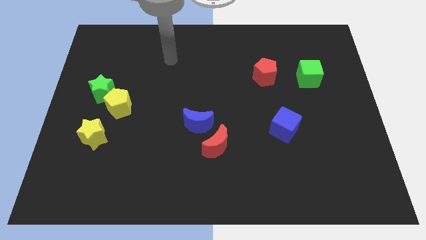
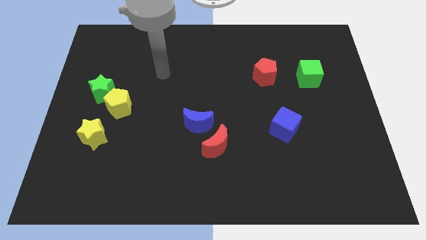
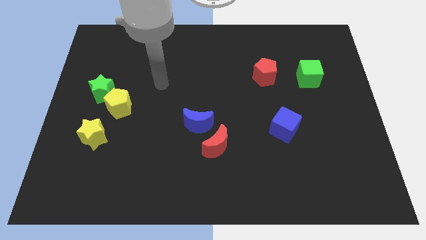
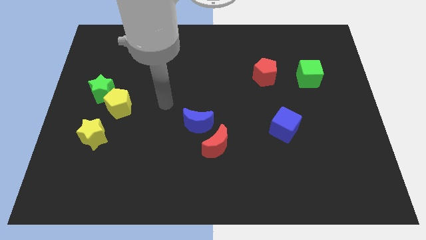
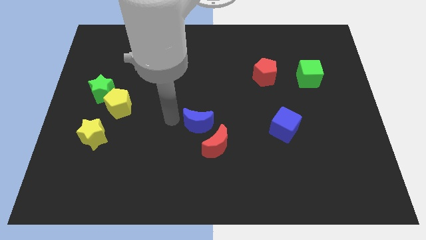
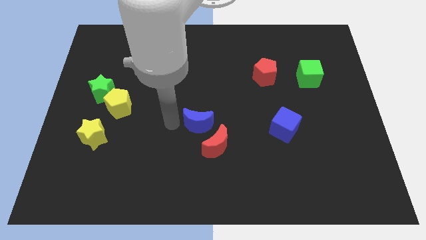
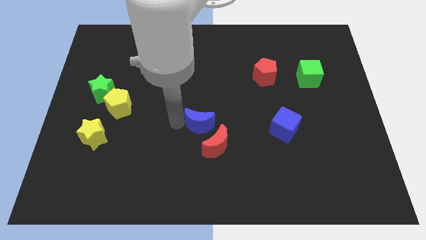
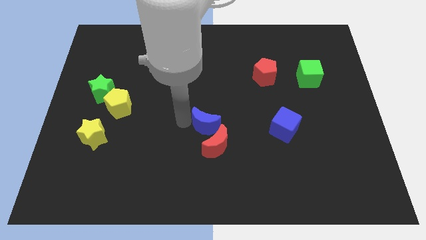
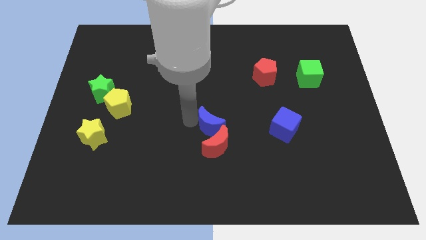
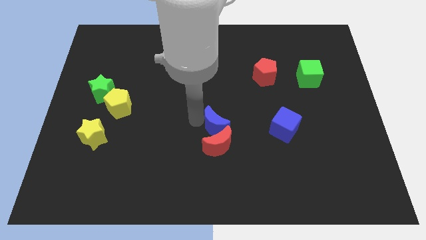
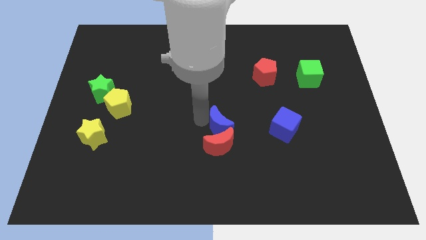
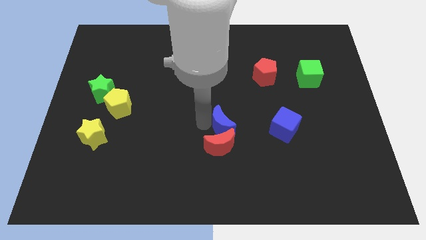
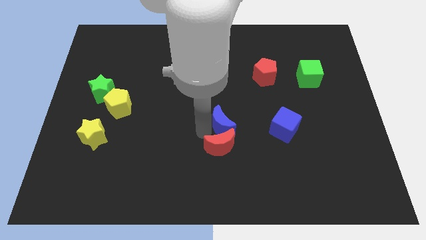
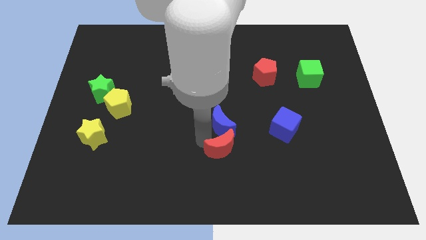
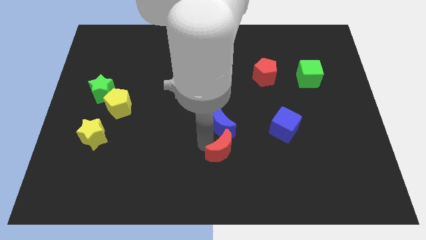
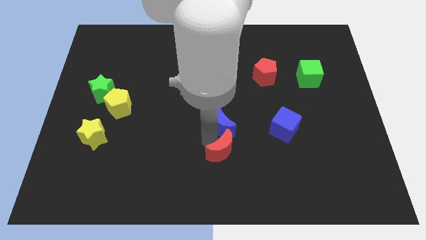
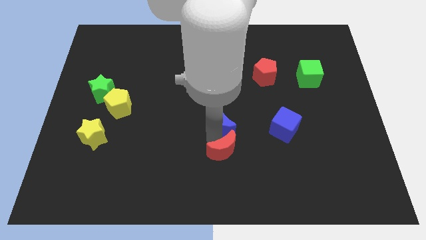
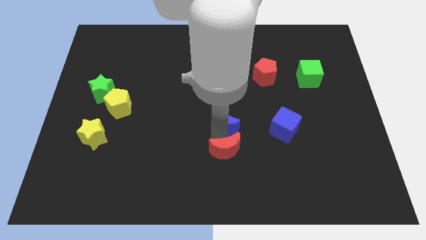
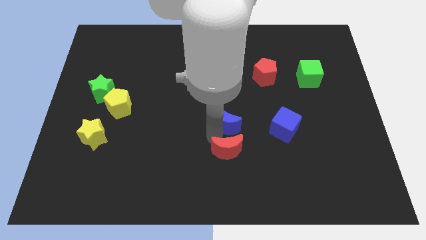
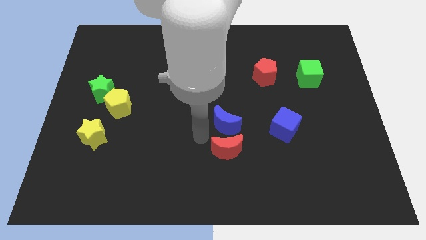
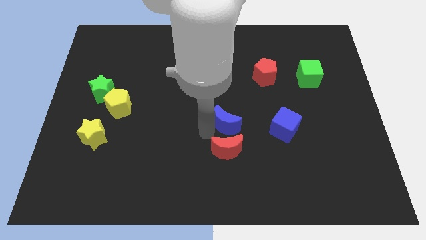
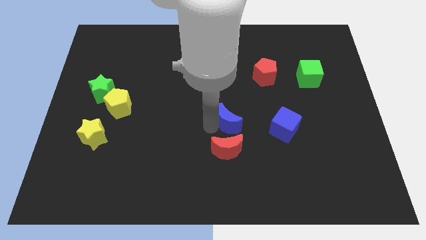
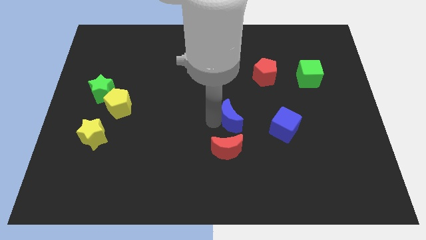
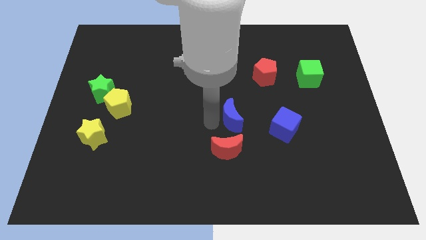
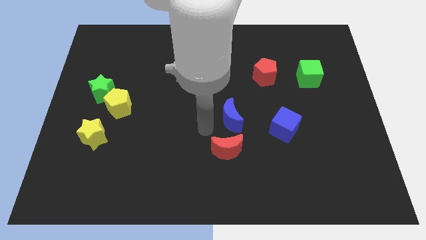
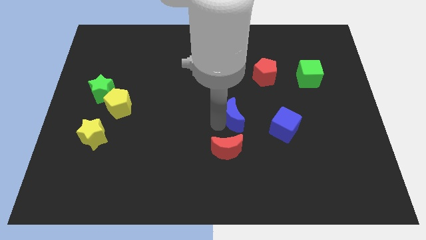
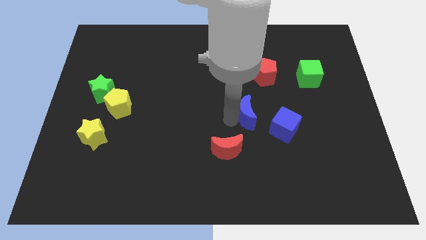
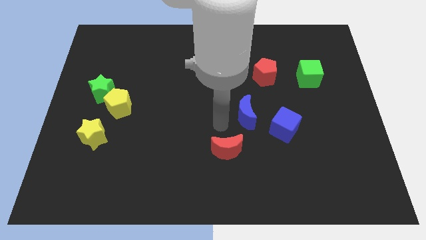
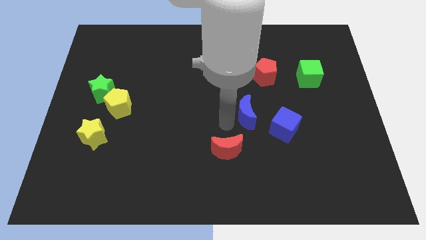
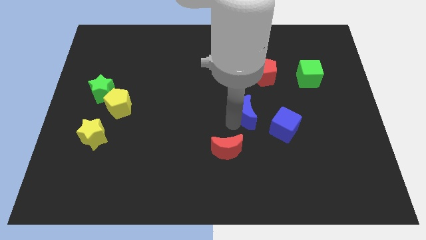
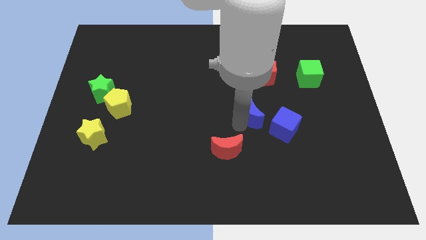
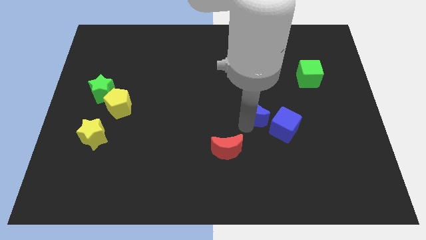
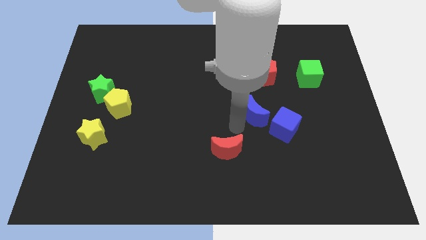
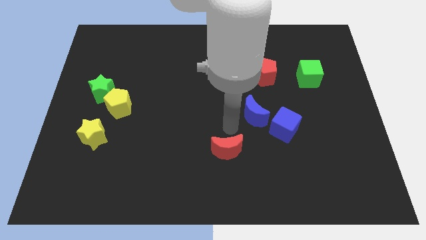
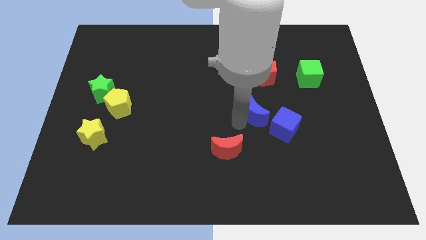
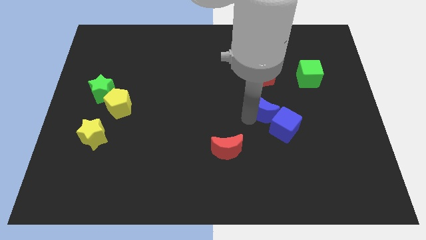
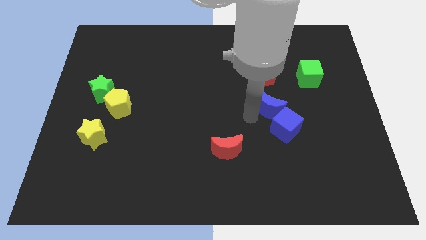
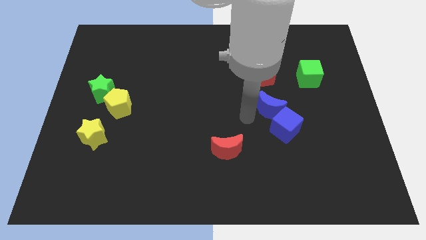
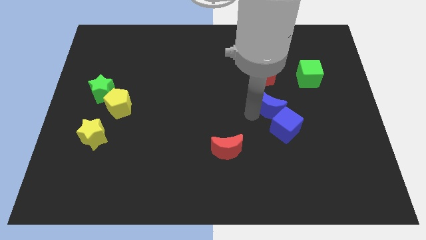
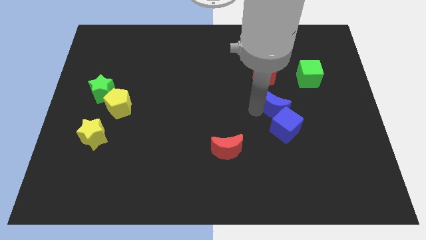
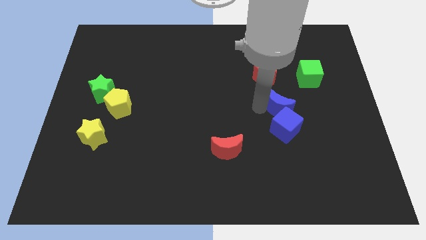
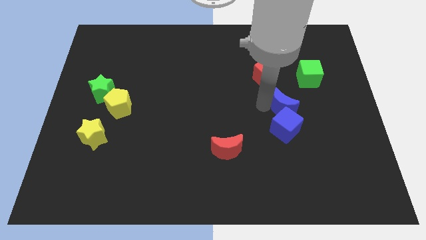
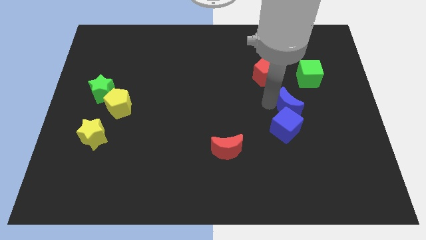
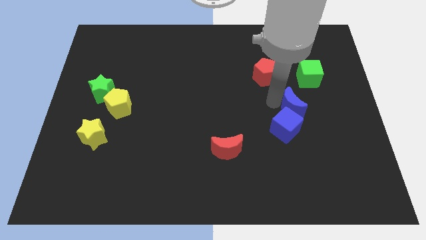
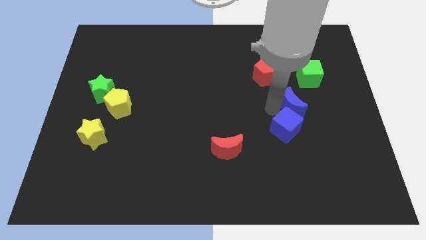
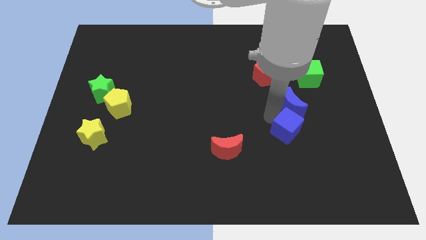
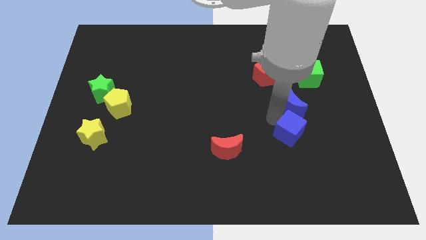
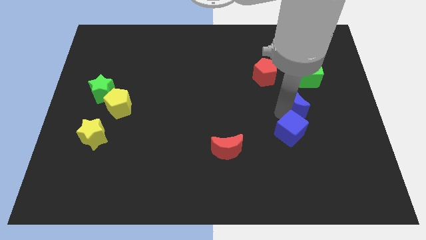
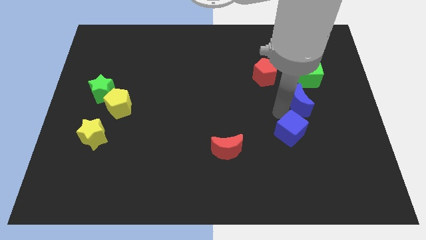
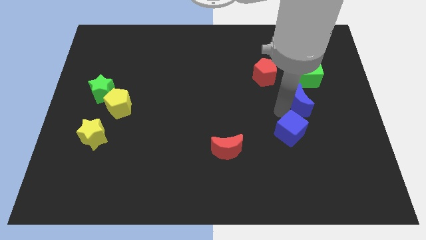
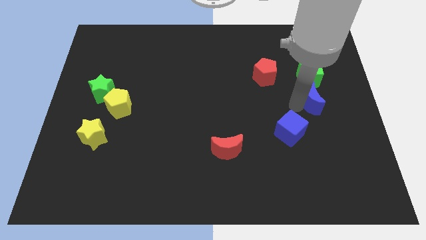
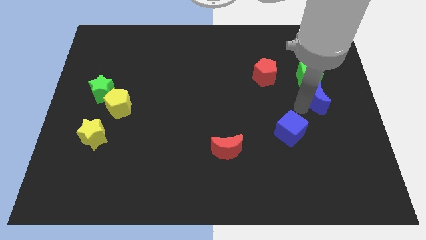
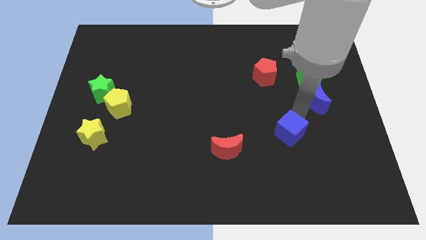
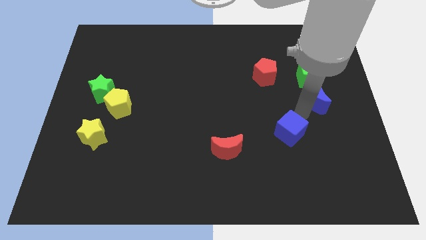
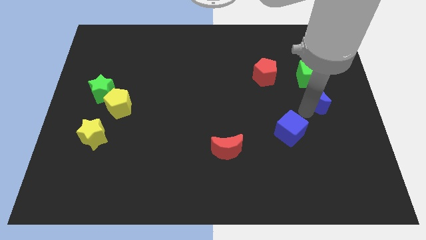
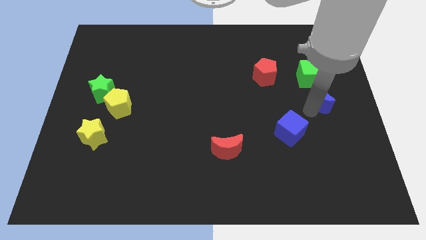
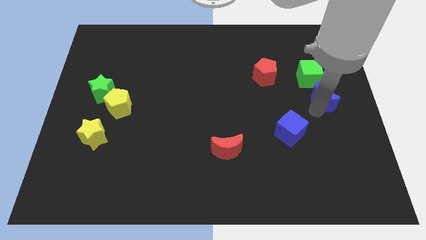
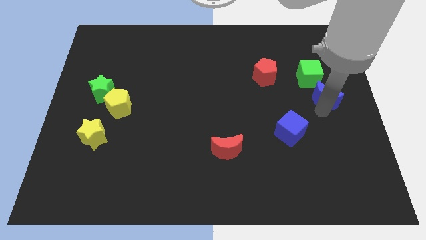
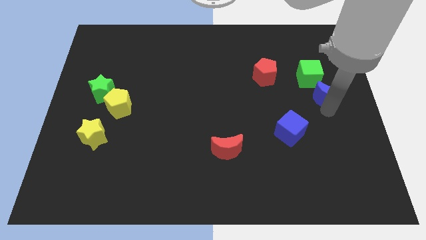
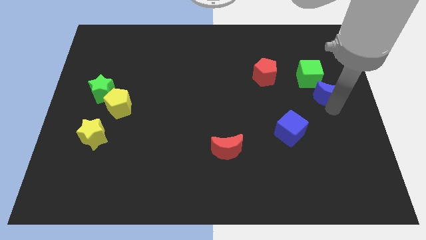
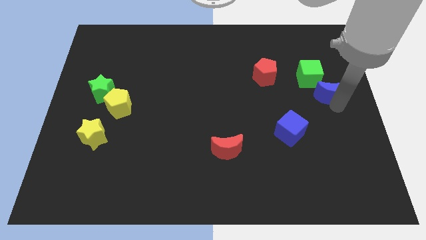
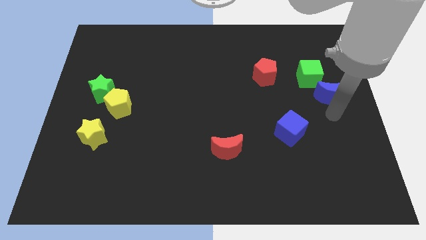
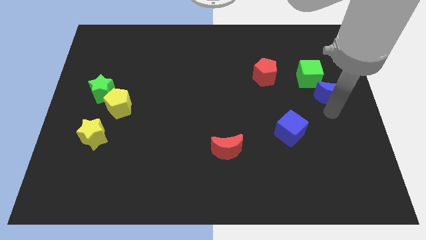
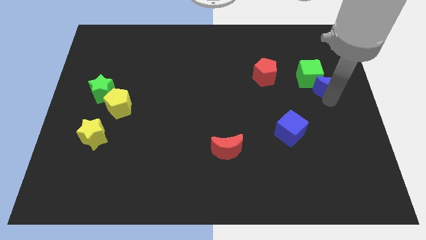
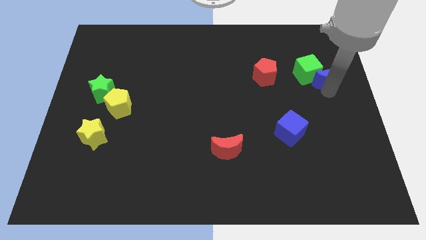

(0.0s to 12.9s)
move the blue moon to the right side of the red pentagon
